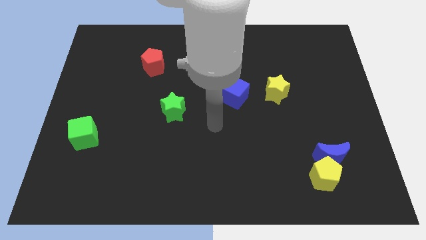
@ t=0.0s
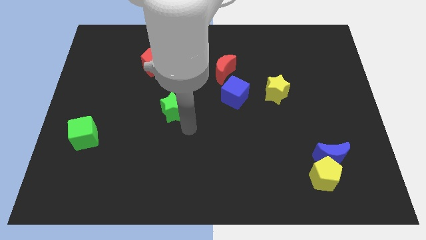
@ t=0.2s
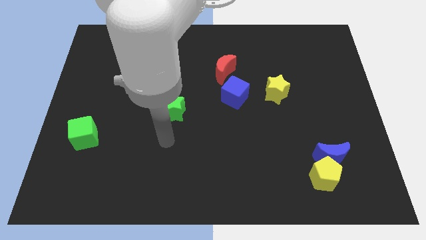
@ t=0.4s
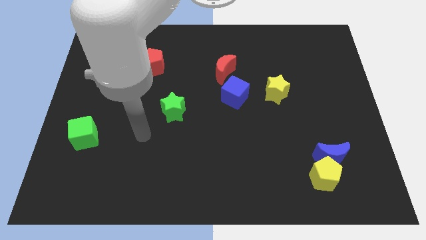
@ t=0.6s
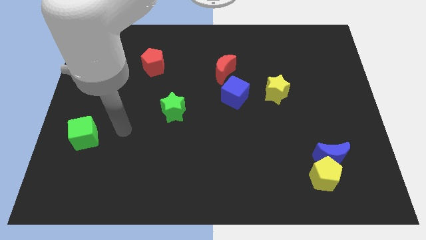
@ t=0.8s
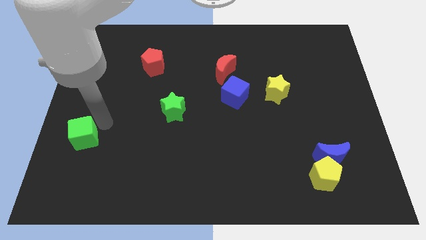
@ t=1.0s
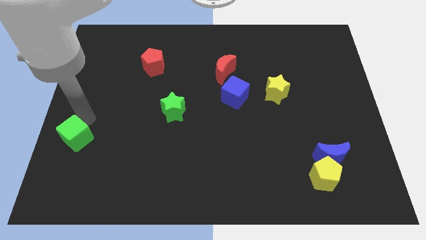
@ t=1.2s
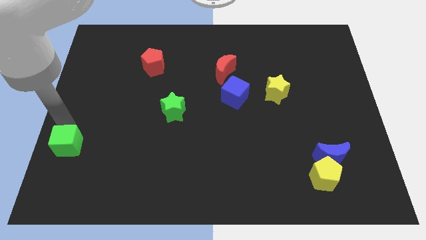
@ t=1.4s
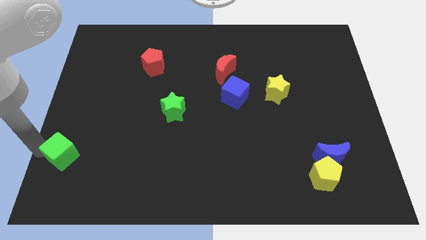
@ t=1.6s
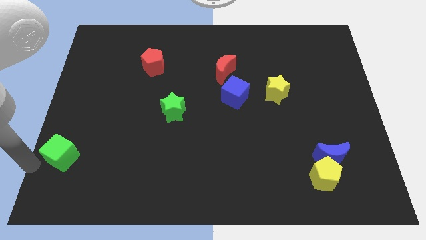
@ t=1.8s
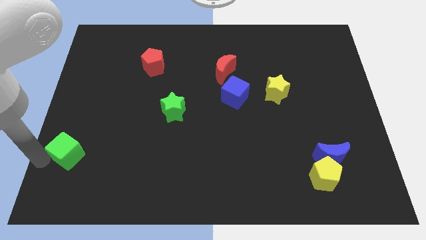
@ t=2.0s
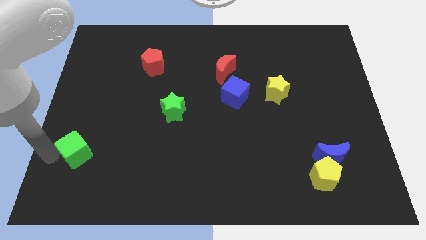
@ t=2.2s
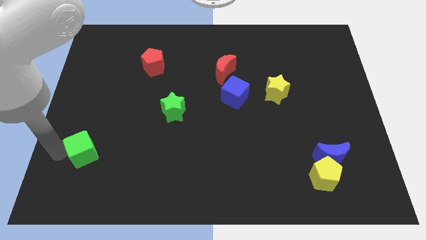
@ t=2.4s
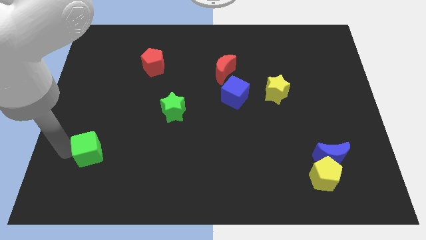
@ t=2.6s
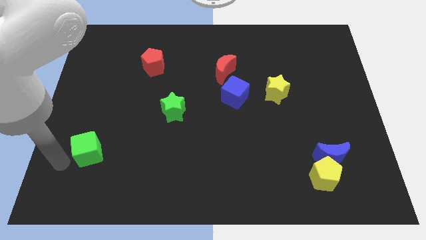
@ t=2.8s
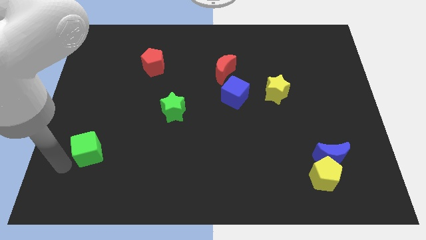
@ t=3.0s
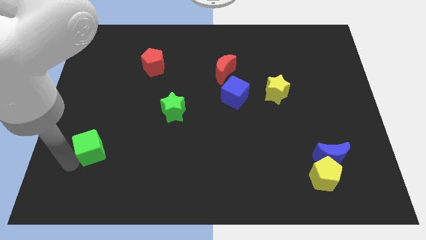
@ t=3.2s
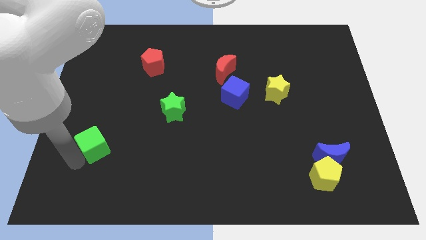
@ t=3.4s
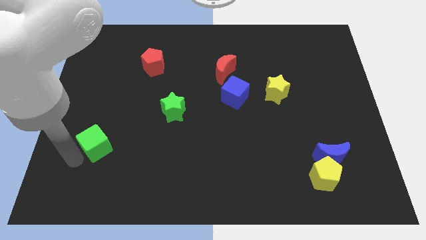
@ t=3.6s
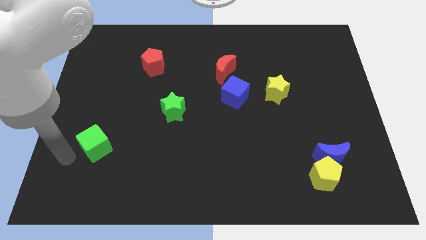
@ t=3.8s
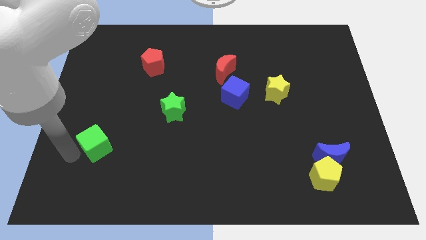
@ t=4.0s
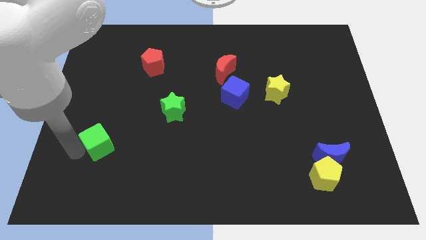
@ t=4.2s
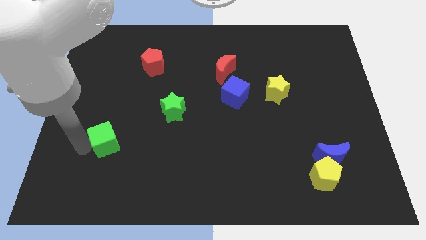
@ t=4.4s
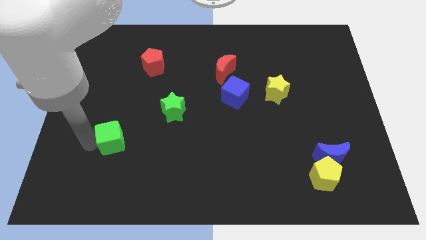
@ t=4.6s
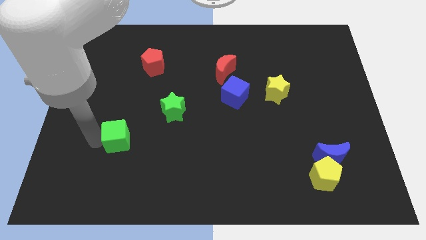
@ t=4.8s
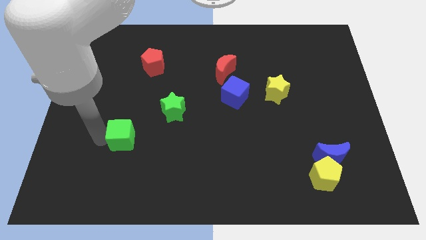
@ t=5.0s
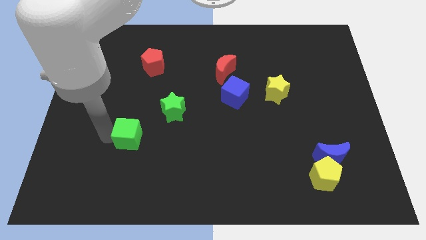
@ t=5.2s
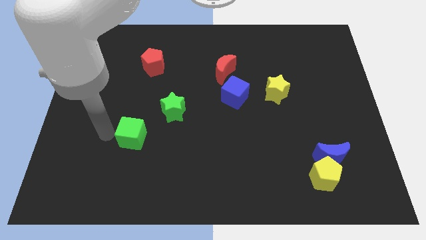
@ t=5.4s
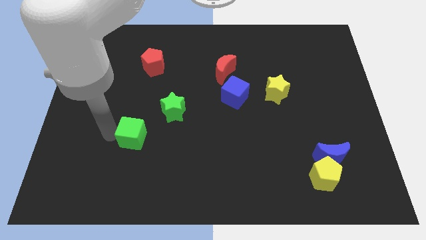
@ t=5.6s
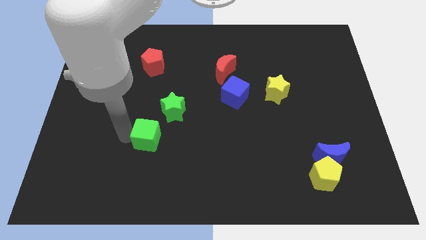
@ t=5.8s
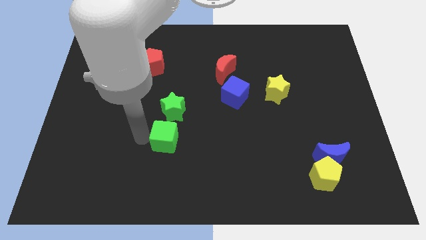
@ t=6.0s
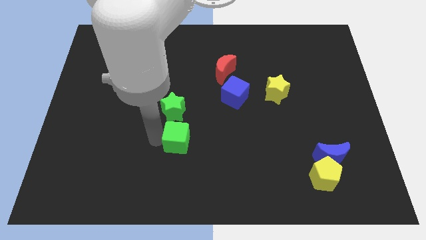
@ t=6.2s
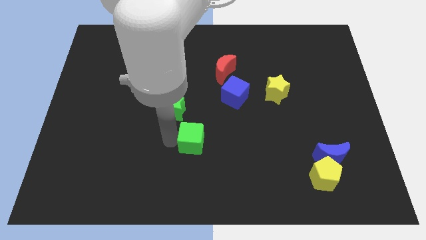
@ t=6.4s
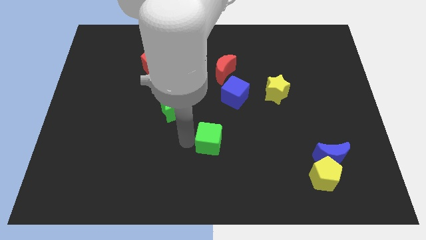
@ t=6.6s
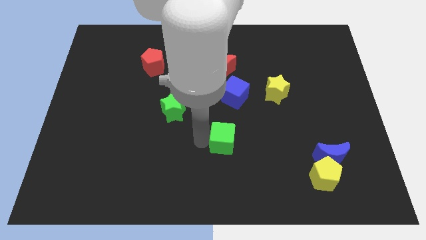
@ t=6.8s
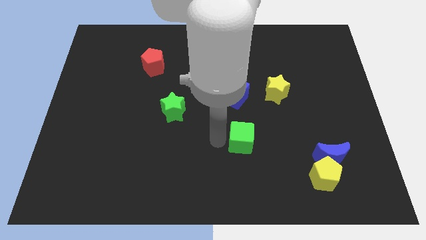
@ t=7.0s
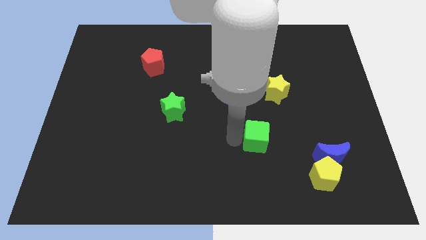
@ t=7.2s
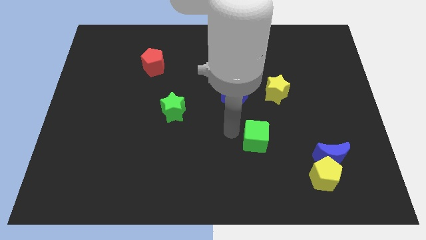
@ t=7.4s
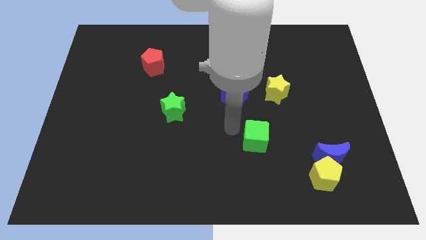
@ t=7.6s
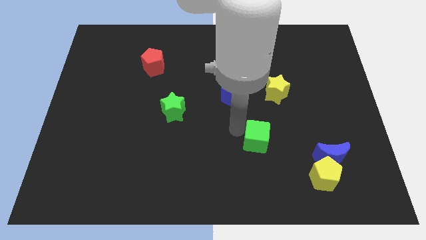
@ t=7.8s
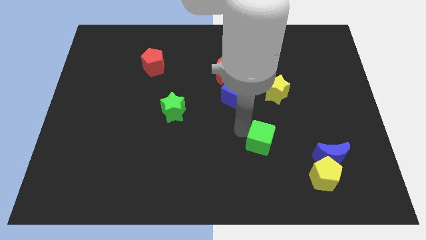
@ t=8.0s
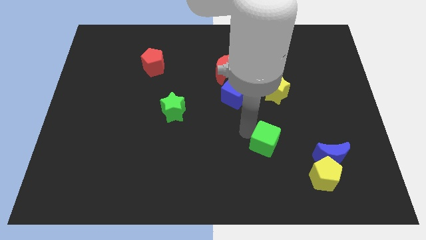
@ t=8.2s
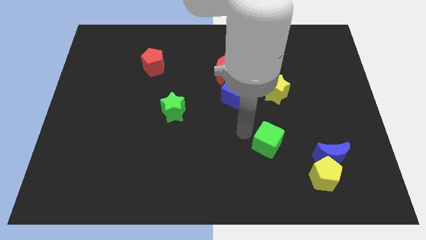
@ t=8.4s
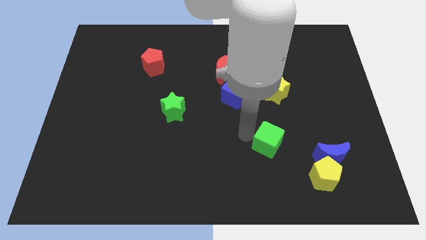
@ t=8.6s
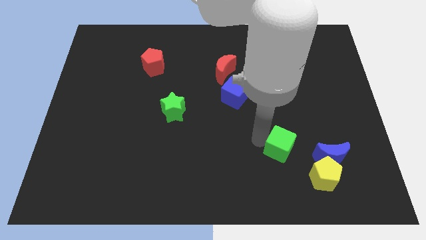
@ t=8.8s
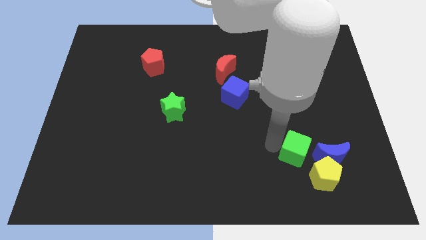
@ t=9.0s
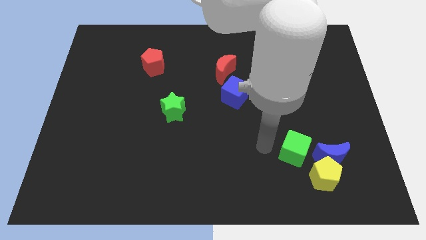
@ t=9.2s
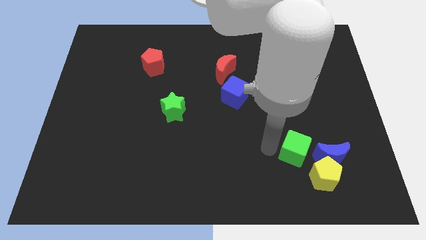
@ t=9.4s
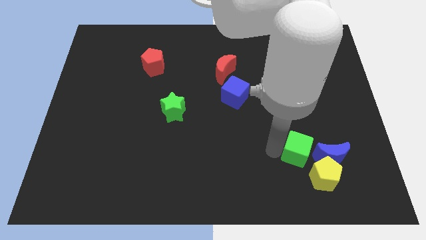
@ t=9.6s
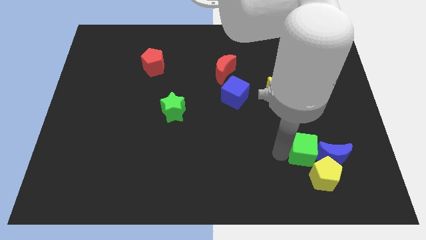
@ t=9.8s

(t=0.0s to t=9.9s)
move the green cube towards the blue moon

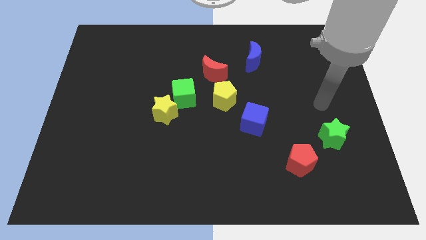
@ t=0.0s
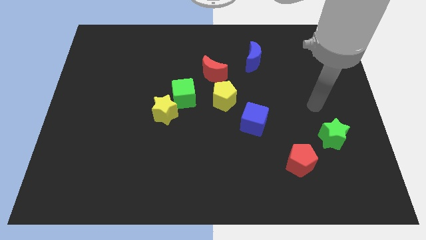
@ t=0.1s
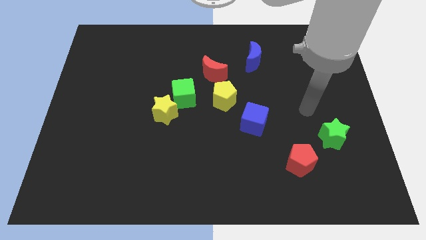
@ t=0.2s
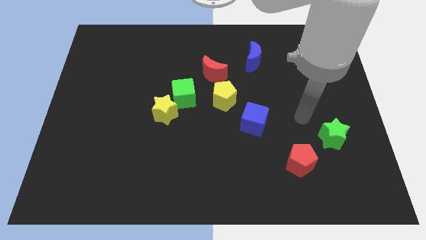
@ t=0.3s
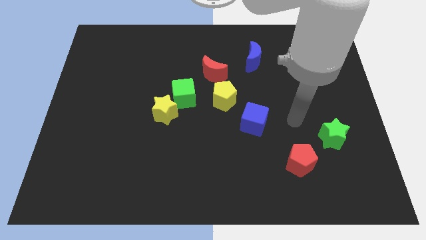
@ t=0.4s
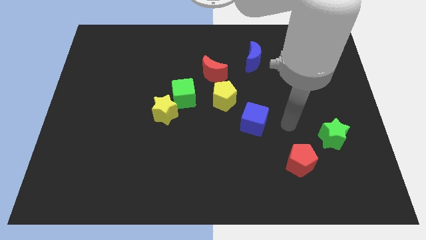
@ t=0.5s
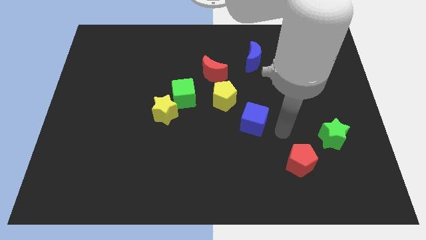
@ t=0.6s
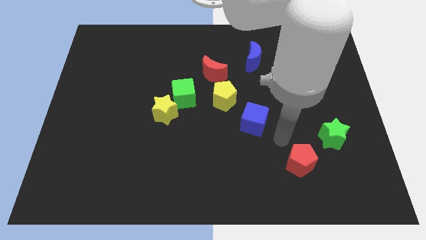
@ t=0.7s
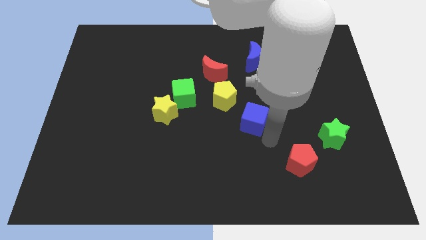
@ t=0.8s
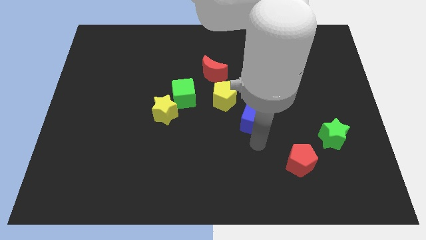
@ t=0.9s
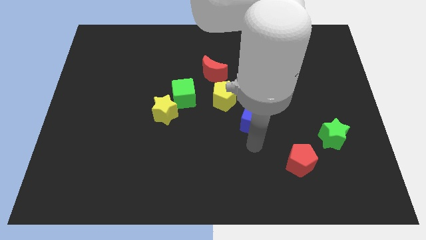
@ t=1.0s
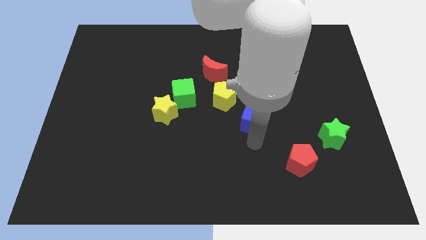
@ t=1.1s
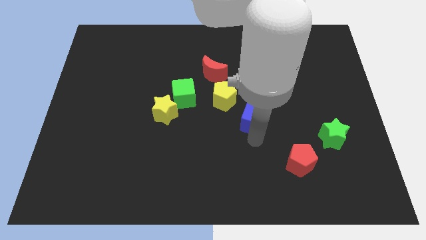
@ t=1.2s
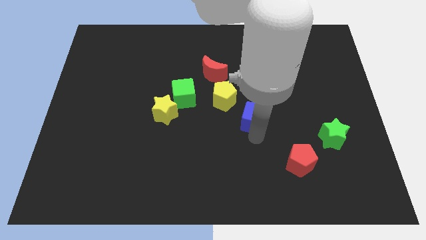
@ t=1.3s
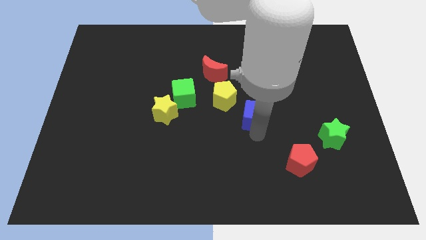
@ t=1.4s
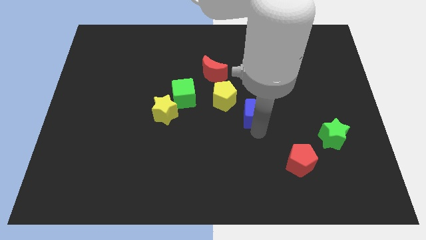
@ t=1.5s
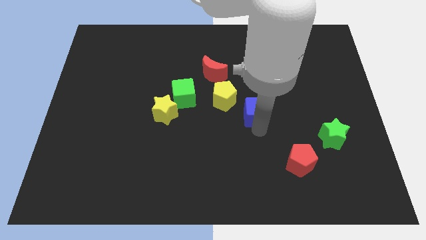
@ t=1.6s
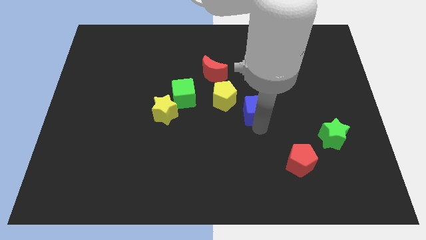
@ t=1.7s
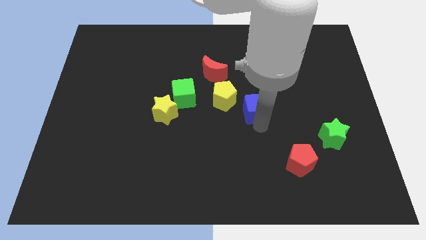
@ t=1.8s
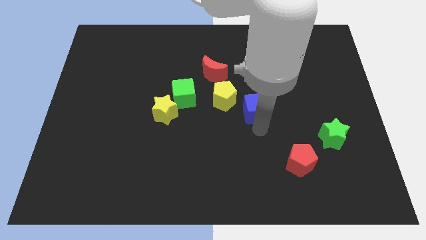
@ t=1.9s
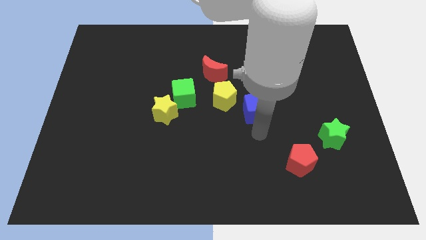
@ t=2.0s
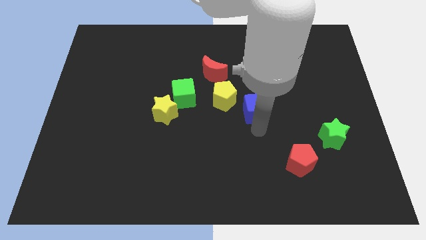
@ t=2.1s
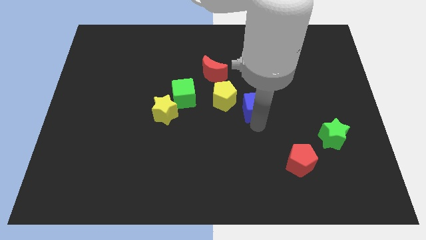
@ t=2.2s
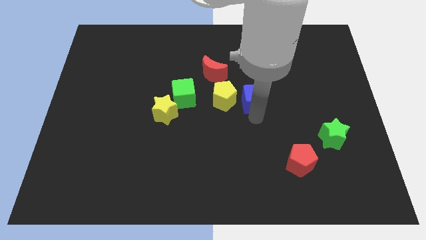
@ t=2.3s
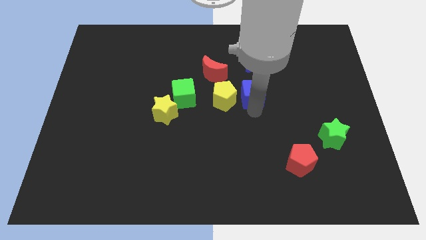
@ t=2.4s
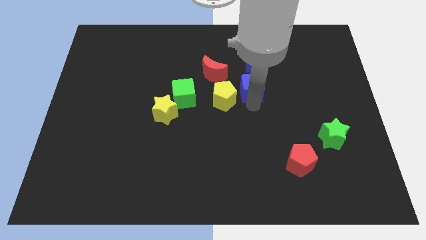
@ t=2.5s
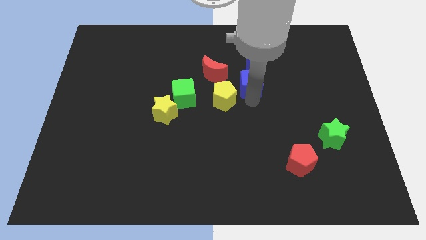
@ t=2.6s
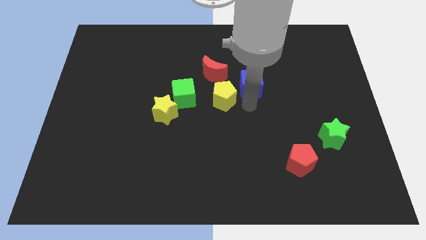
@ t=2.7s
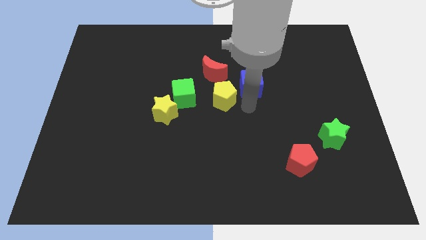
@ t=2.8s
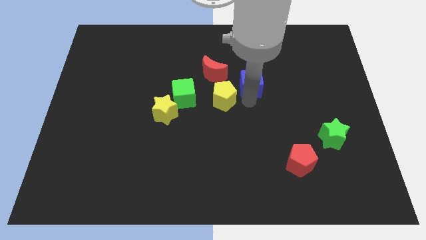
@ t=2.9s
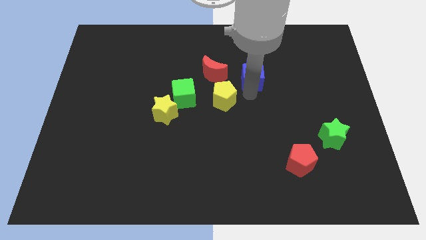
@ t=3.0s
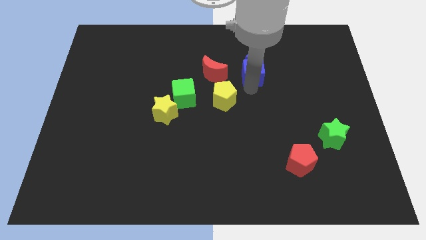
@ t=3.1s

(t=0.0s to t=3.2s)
slide the blue cube to the blue moon
